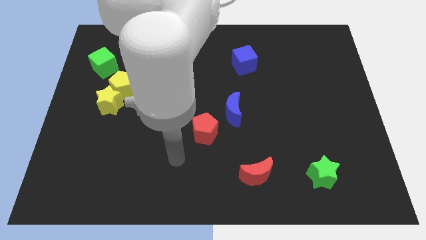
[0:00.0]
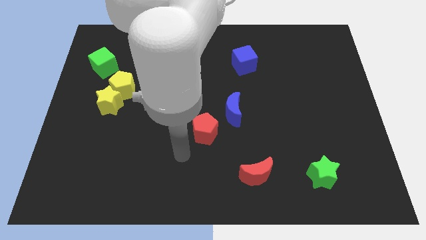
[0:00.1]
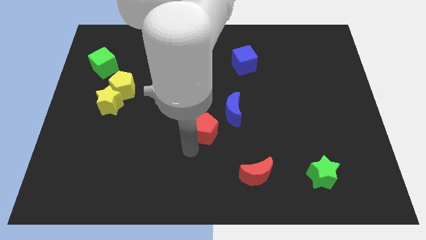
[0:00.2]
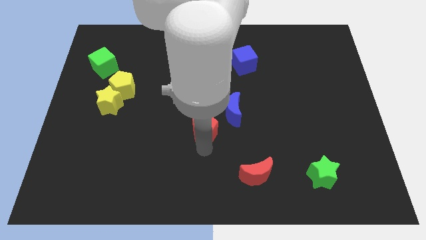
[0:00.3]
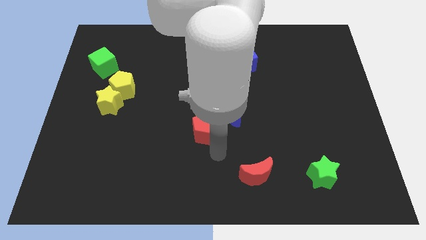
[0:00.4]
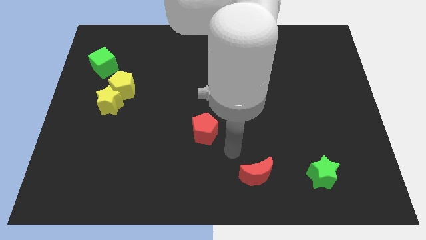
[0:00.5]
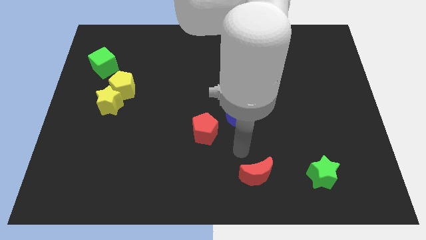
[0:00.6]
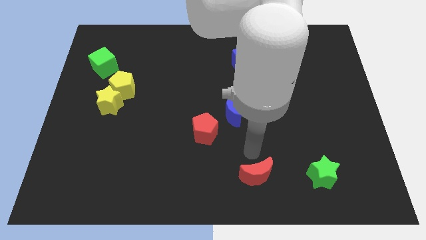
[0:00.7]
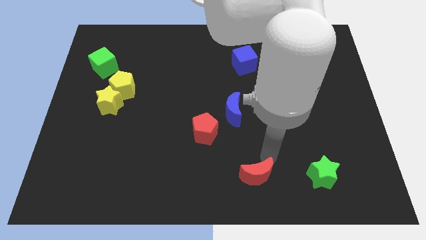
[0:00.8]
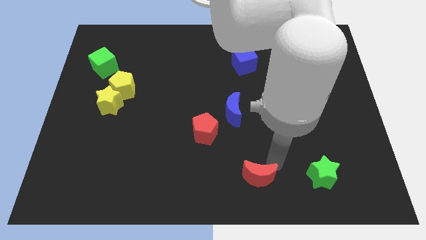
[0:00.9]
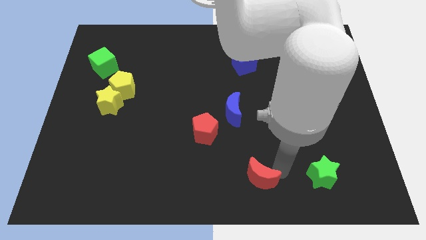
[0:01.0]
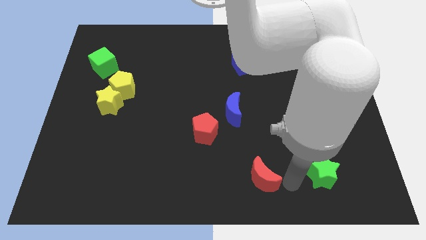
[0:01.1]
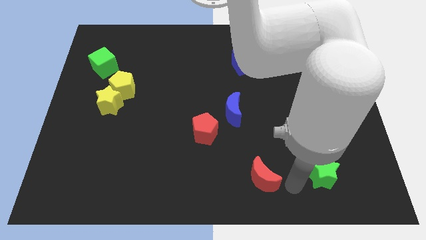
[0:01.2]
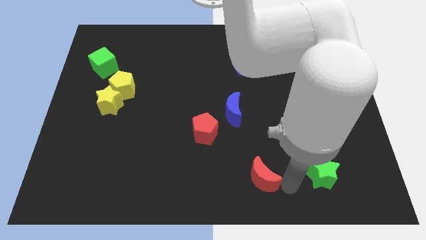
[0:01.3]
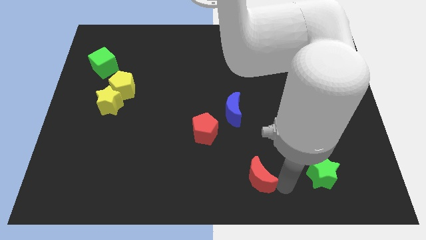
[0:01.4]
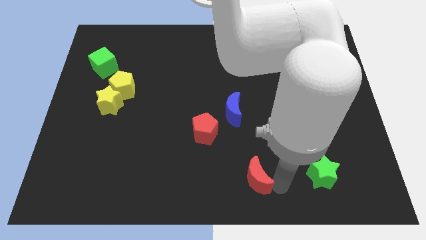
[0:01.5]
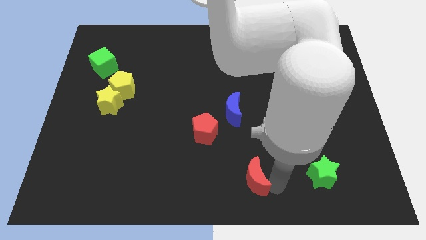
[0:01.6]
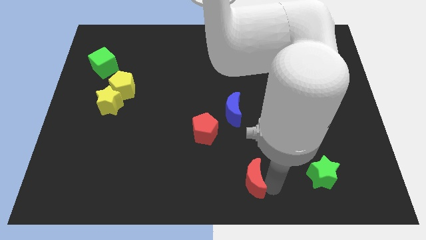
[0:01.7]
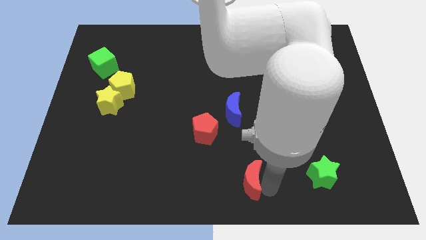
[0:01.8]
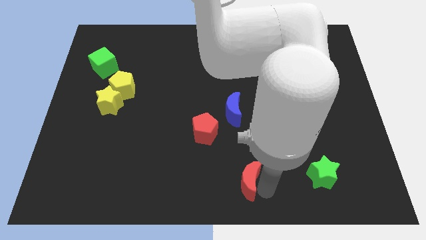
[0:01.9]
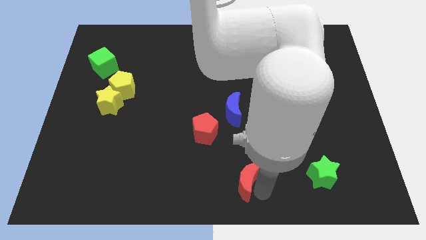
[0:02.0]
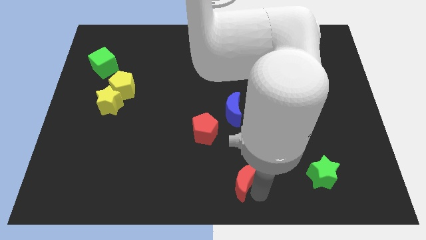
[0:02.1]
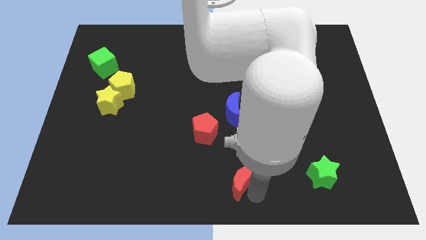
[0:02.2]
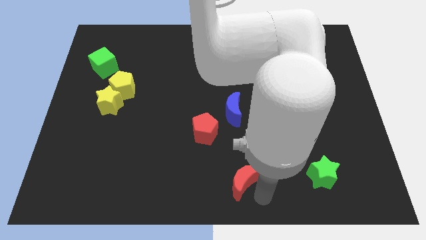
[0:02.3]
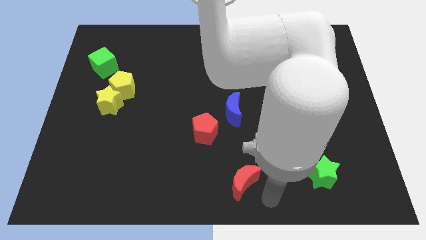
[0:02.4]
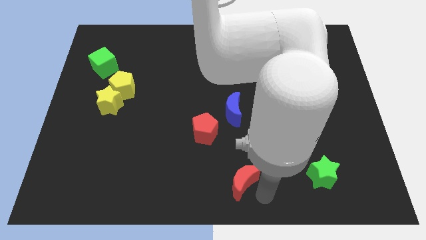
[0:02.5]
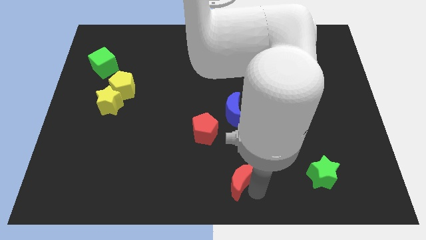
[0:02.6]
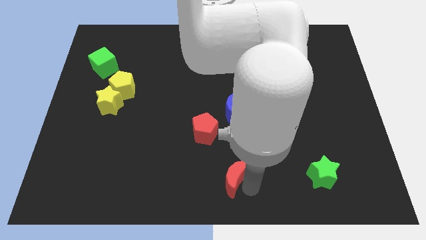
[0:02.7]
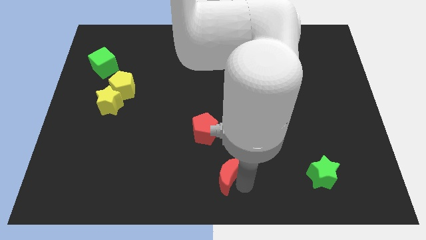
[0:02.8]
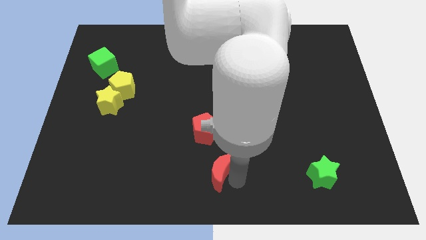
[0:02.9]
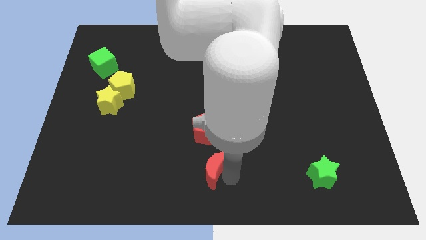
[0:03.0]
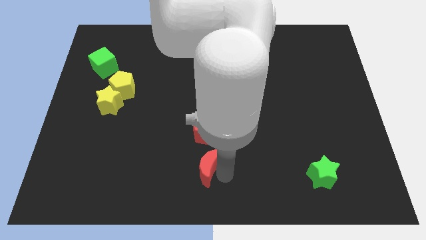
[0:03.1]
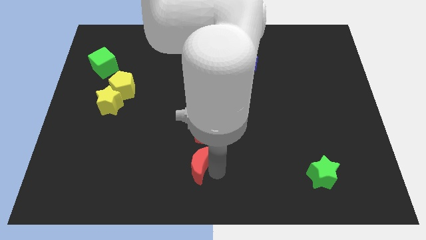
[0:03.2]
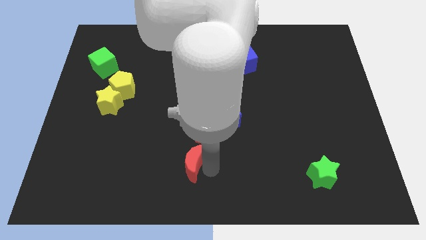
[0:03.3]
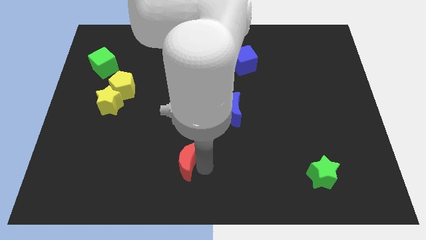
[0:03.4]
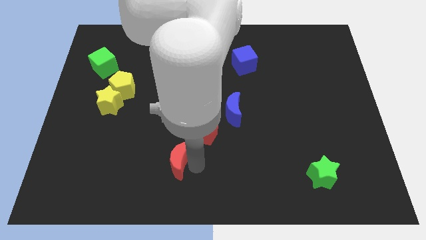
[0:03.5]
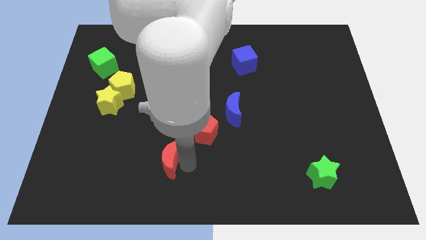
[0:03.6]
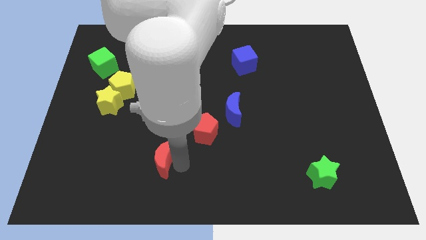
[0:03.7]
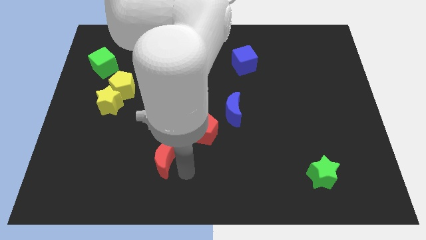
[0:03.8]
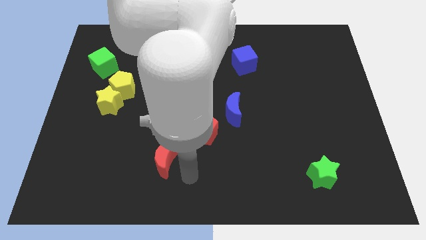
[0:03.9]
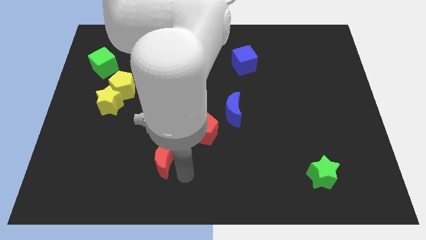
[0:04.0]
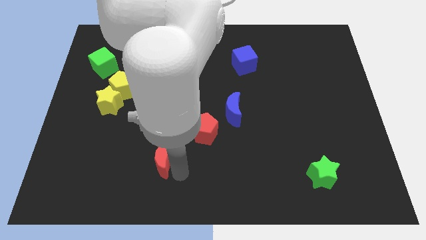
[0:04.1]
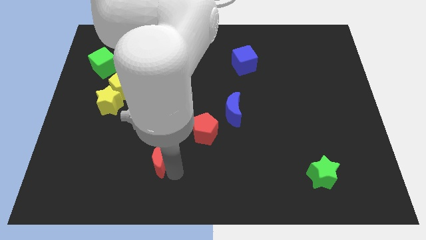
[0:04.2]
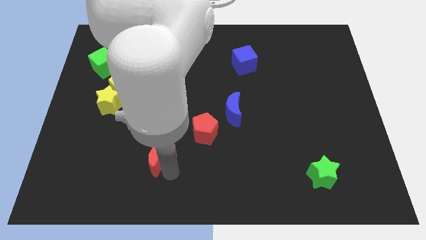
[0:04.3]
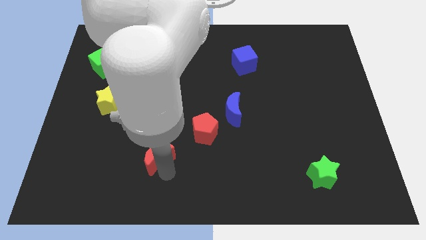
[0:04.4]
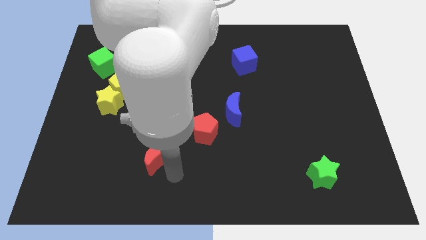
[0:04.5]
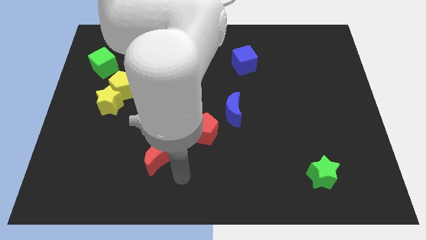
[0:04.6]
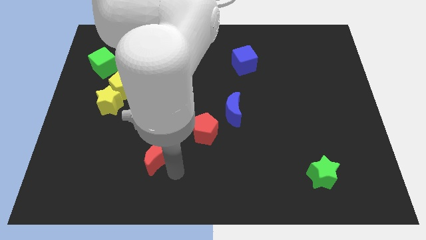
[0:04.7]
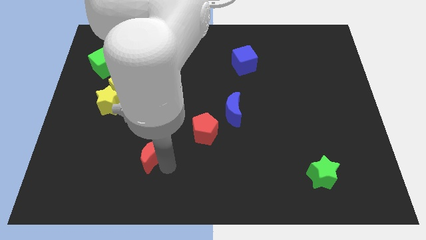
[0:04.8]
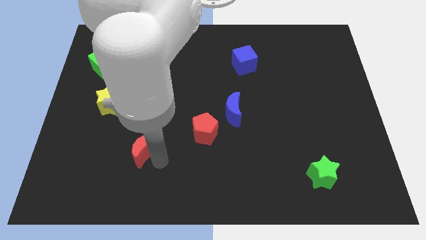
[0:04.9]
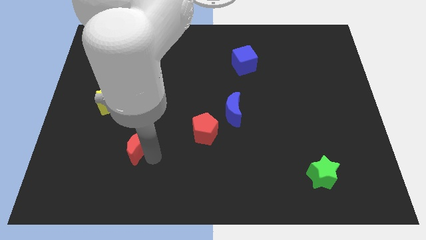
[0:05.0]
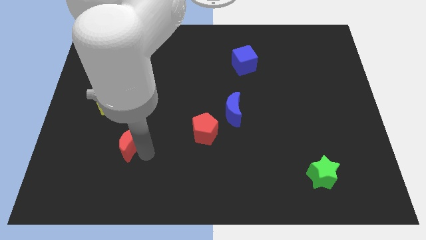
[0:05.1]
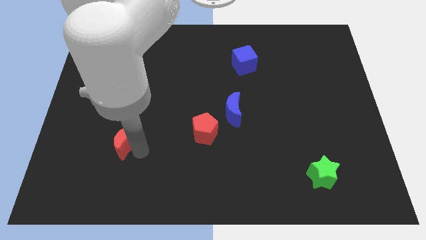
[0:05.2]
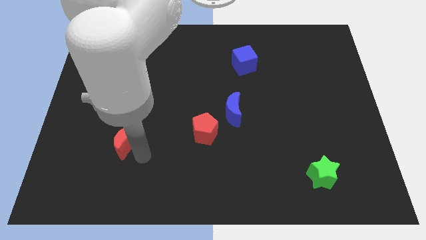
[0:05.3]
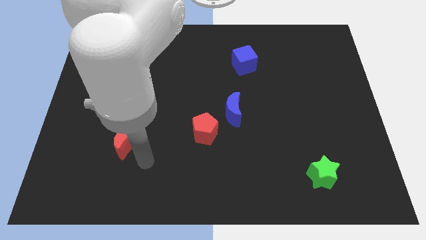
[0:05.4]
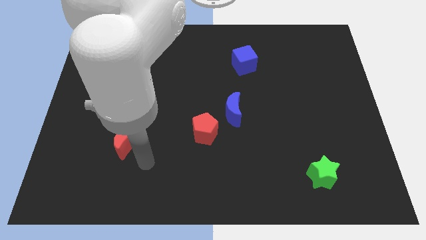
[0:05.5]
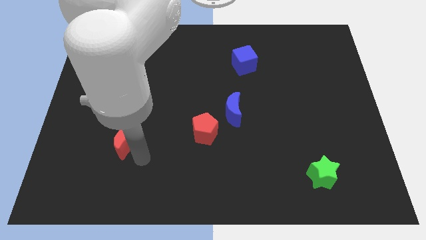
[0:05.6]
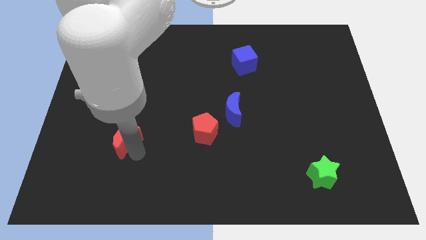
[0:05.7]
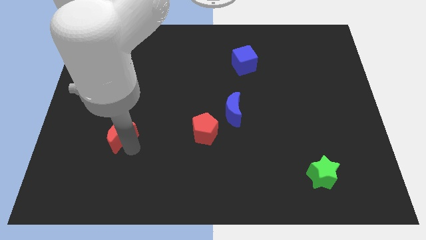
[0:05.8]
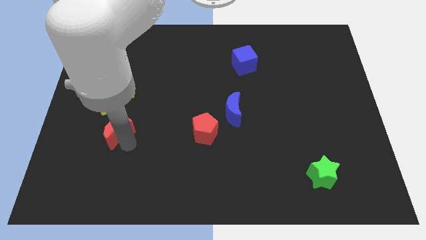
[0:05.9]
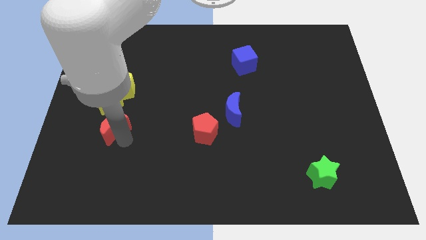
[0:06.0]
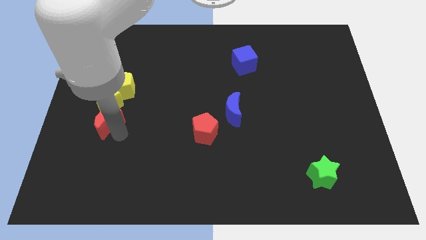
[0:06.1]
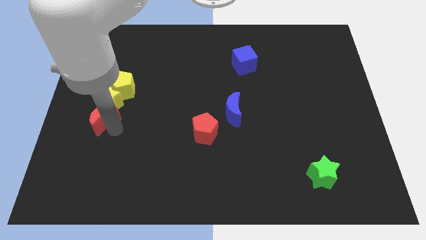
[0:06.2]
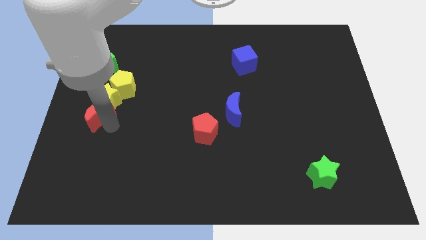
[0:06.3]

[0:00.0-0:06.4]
push the red moon to the left side of the board
